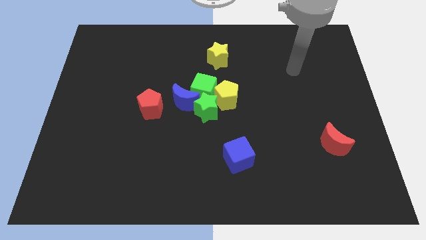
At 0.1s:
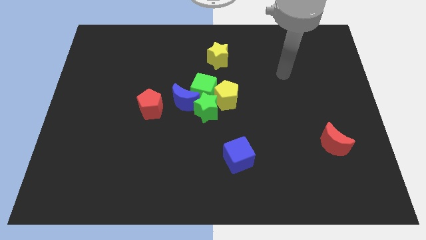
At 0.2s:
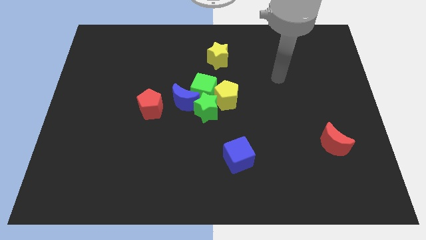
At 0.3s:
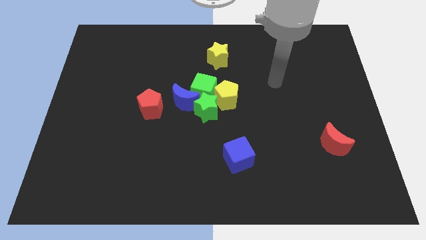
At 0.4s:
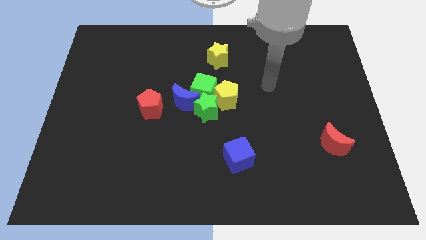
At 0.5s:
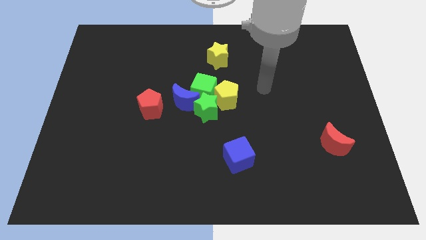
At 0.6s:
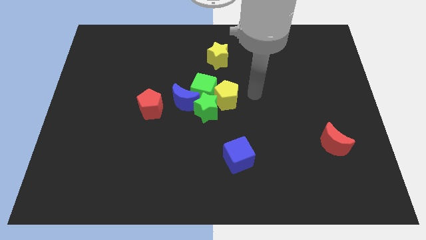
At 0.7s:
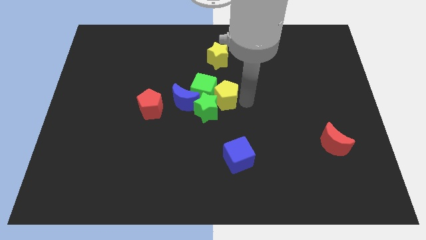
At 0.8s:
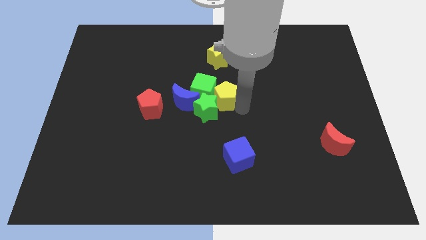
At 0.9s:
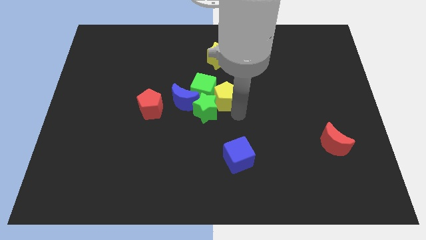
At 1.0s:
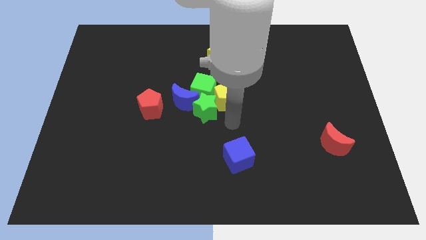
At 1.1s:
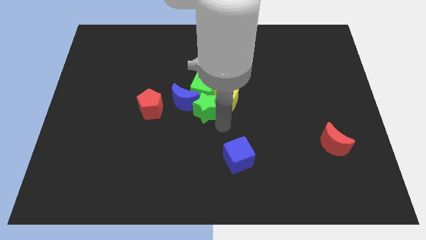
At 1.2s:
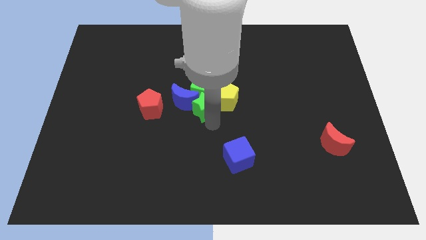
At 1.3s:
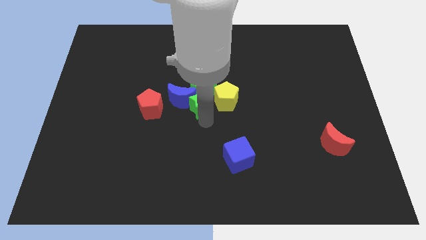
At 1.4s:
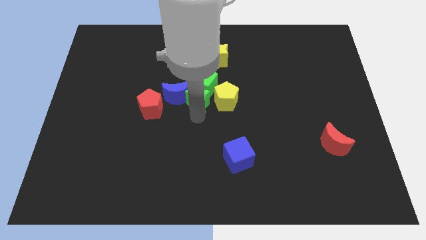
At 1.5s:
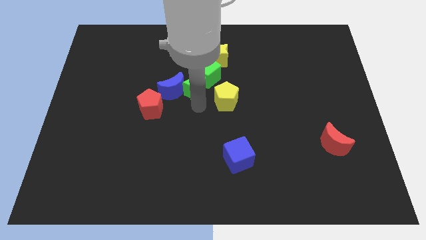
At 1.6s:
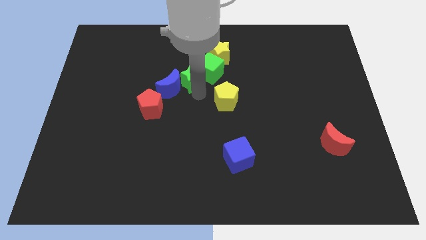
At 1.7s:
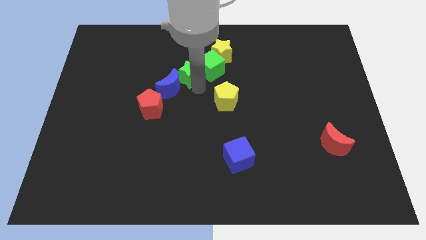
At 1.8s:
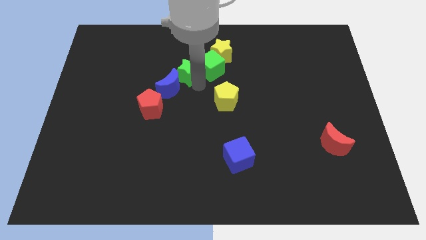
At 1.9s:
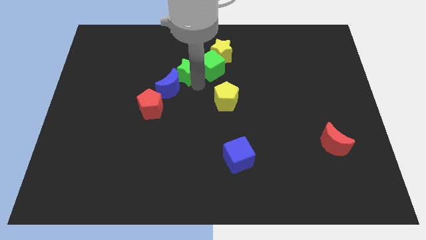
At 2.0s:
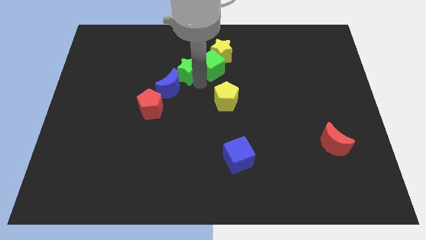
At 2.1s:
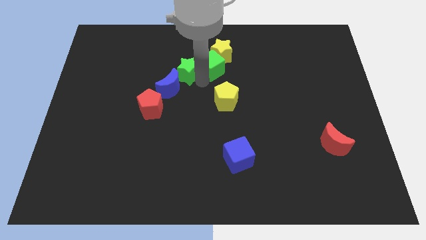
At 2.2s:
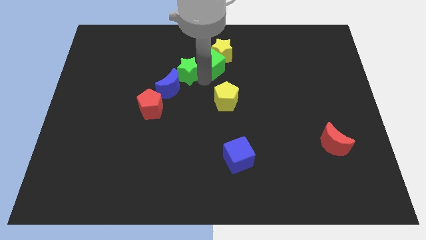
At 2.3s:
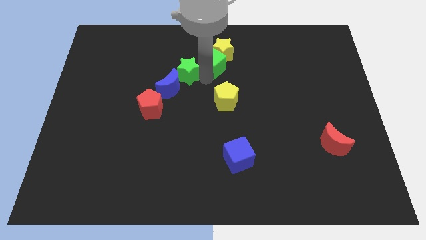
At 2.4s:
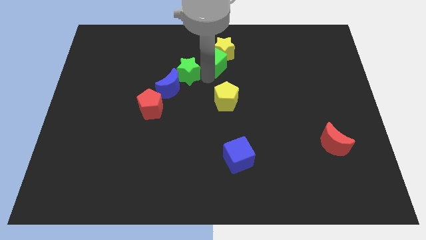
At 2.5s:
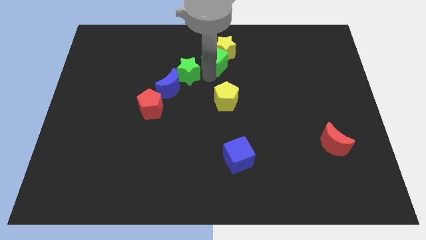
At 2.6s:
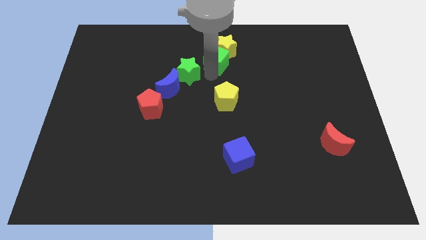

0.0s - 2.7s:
move the green cube away from the blue moon, yellow pentagon, and green star

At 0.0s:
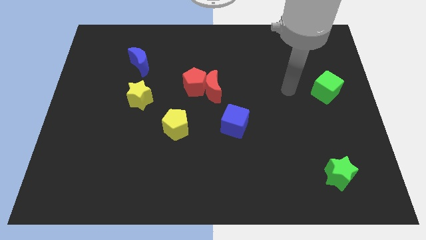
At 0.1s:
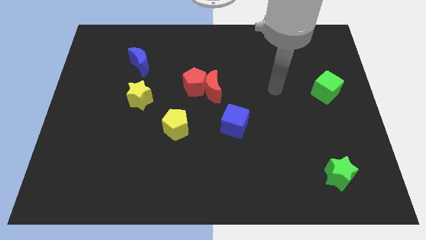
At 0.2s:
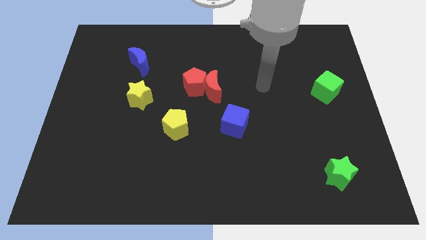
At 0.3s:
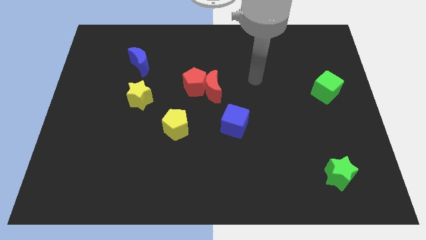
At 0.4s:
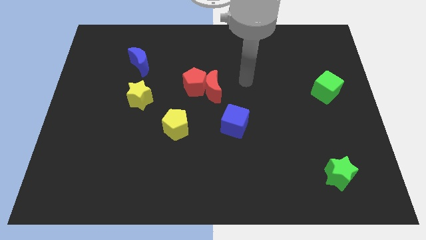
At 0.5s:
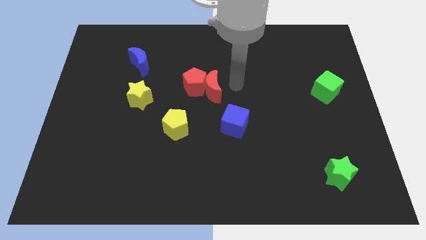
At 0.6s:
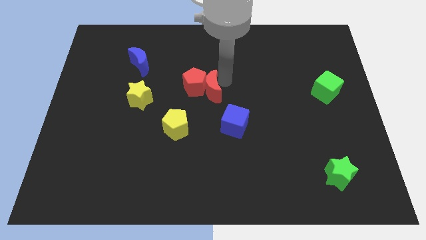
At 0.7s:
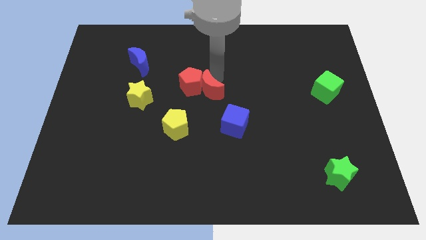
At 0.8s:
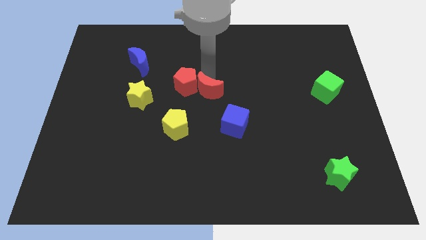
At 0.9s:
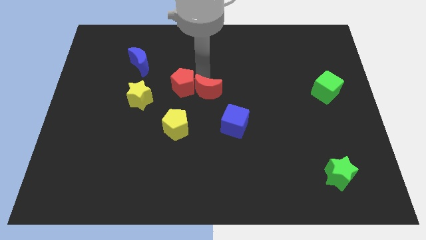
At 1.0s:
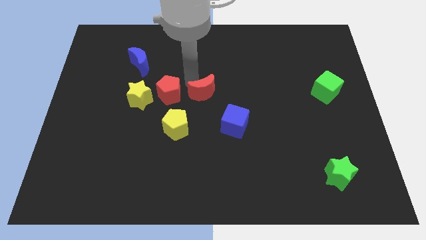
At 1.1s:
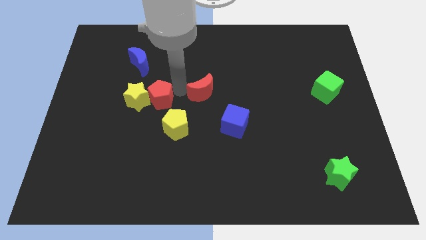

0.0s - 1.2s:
separate the red moon from the red pentagon

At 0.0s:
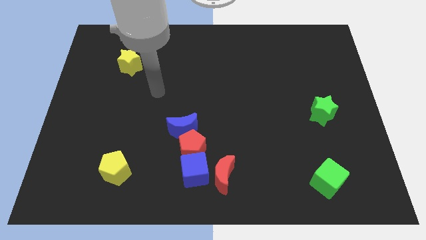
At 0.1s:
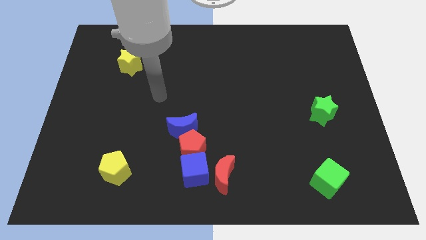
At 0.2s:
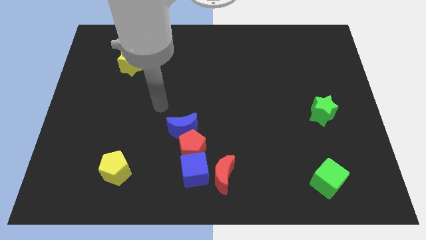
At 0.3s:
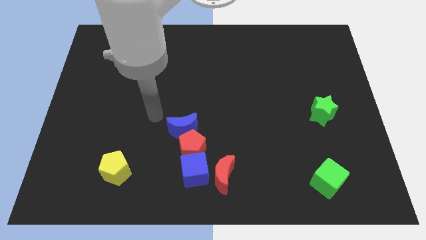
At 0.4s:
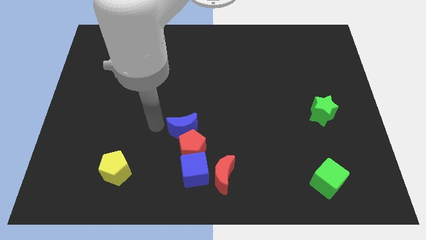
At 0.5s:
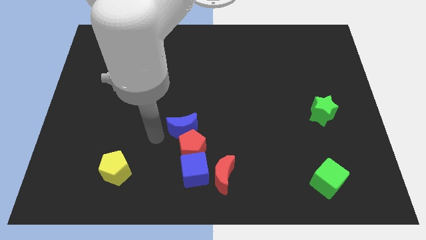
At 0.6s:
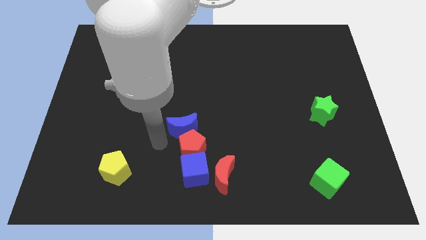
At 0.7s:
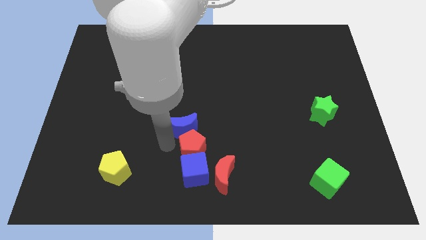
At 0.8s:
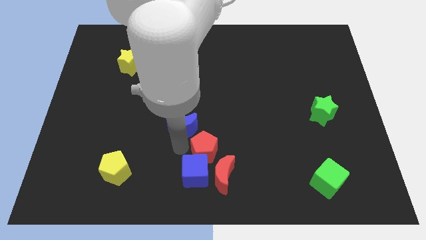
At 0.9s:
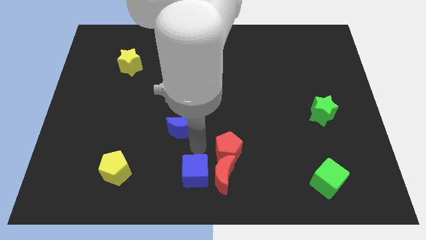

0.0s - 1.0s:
separate the blue moon from the red pentagon

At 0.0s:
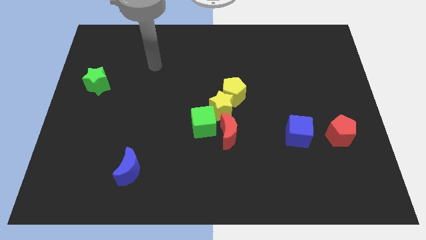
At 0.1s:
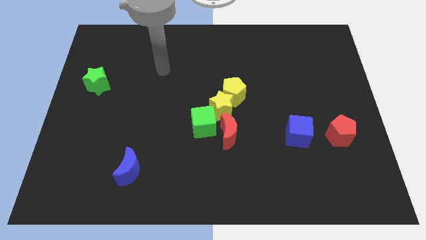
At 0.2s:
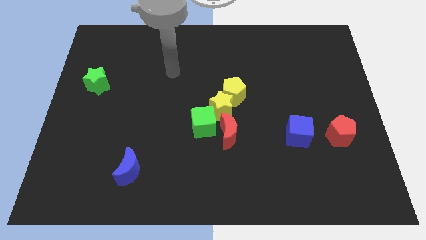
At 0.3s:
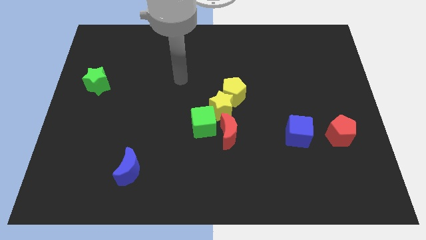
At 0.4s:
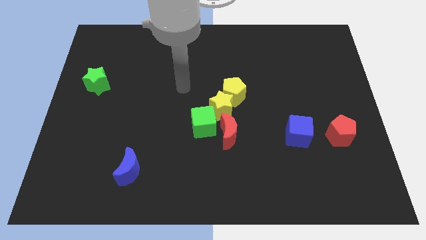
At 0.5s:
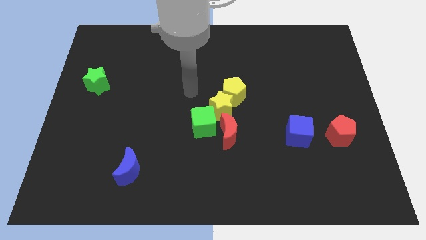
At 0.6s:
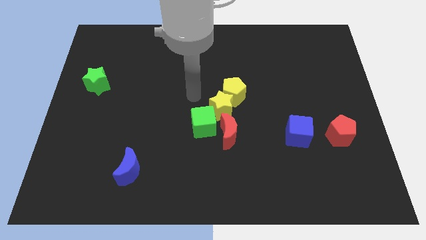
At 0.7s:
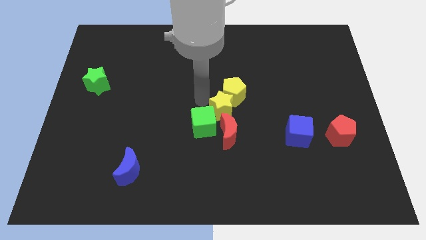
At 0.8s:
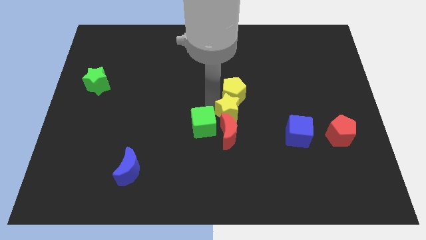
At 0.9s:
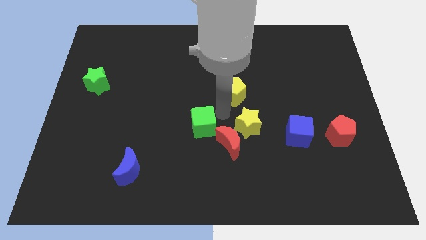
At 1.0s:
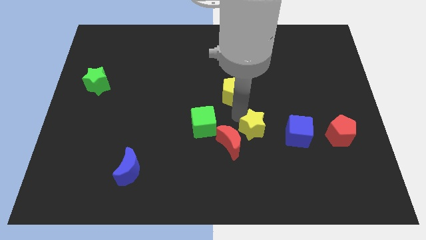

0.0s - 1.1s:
pull the yellow pentagon apart from the yellow star

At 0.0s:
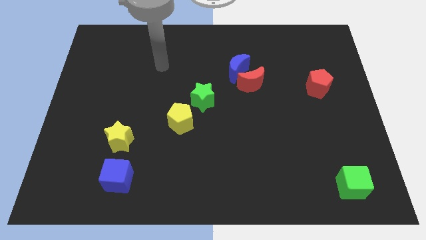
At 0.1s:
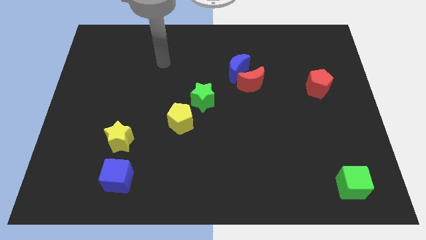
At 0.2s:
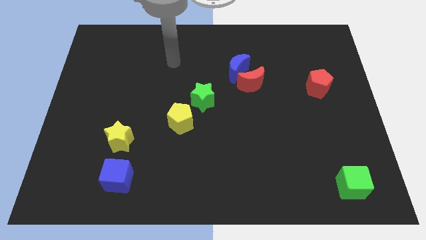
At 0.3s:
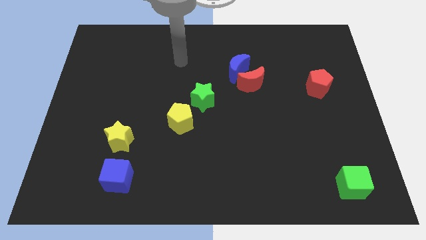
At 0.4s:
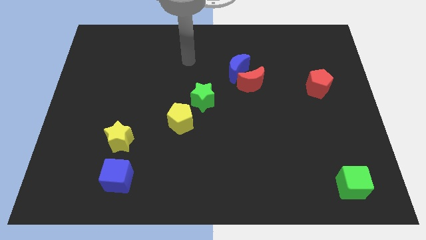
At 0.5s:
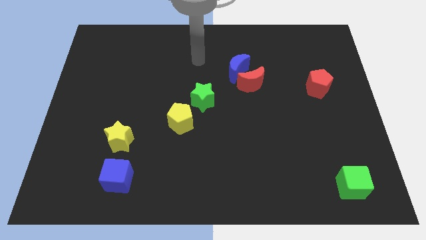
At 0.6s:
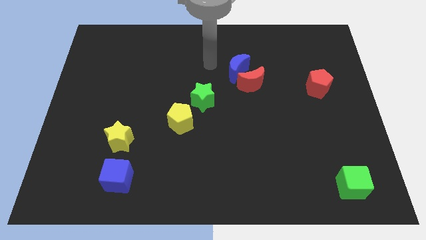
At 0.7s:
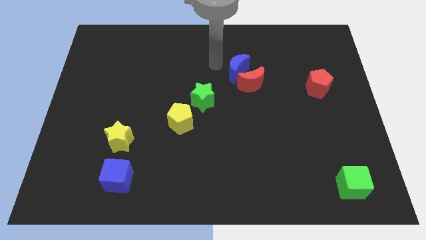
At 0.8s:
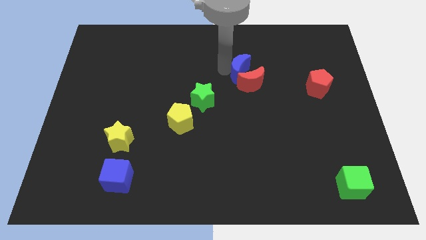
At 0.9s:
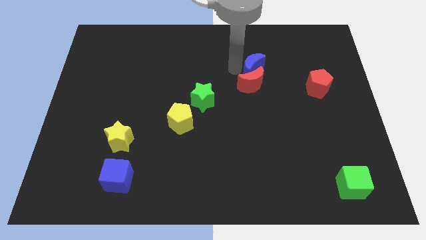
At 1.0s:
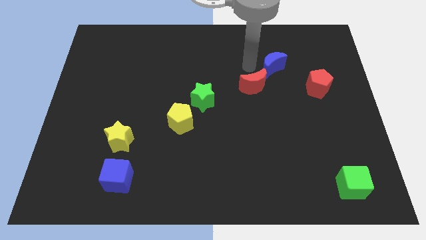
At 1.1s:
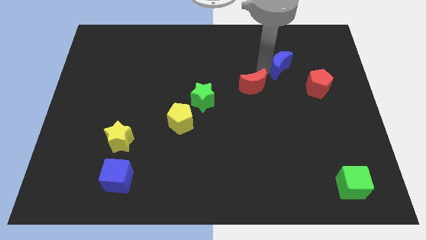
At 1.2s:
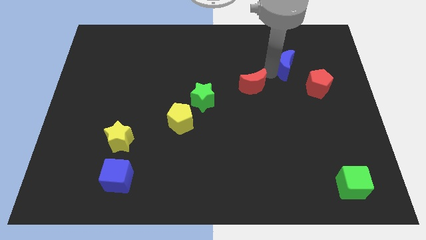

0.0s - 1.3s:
pull the red moon apart from the blue moon

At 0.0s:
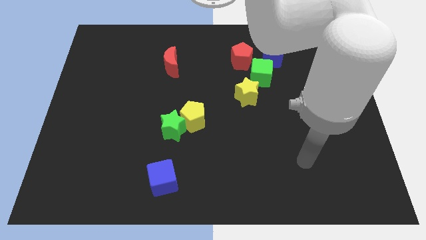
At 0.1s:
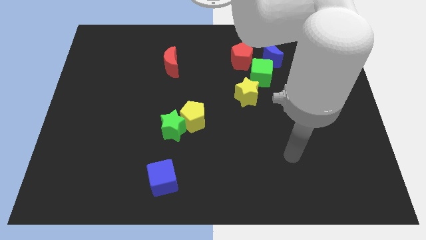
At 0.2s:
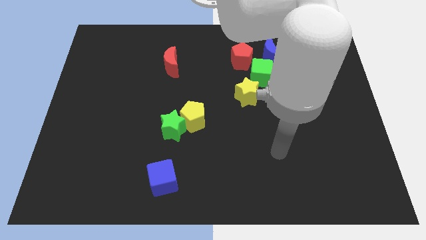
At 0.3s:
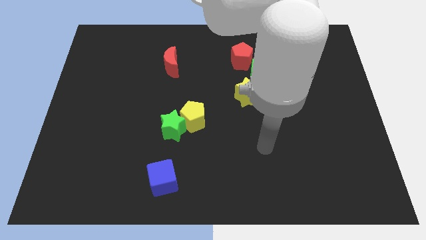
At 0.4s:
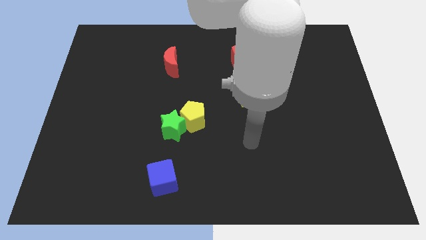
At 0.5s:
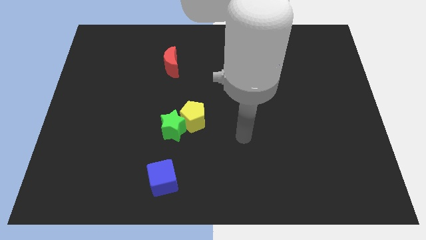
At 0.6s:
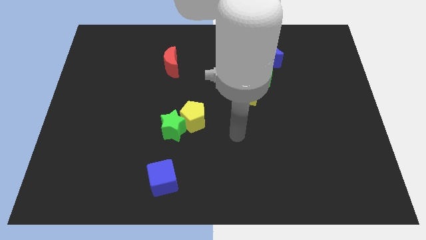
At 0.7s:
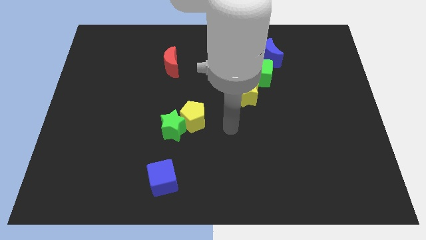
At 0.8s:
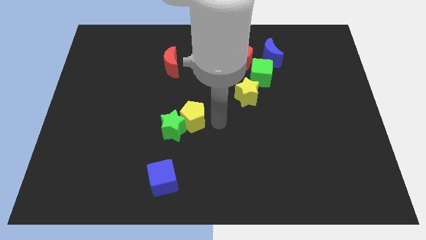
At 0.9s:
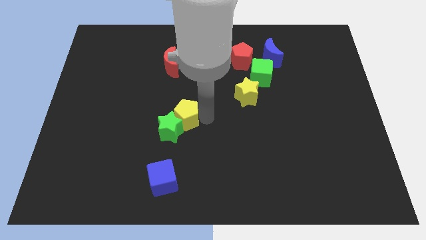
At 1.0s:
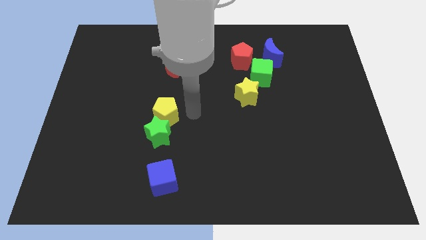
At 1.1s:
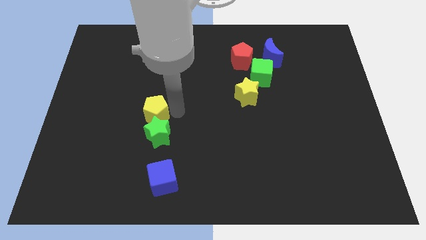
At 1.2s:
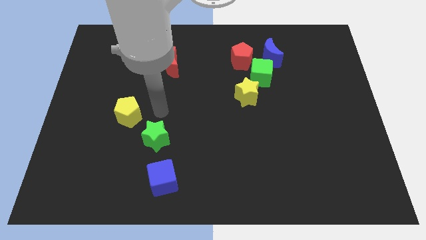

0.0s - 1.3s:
move the green star away from the yellow pentagon

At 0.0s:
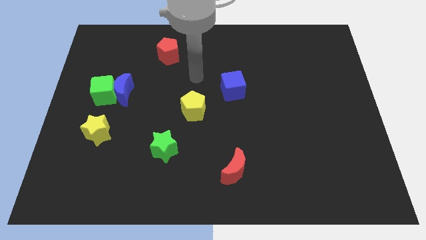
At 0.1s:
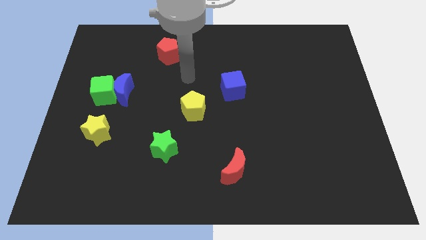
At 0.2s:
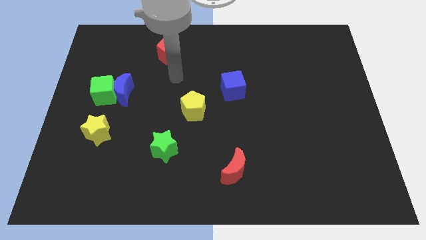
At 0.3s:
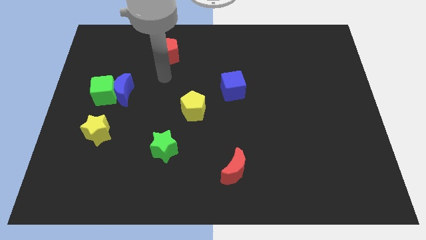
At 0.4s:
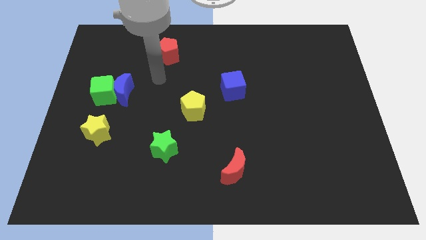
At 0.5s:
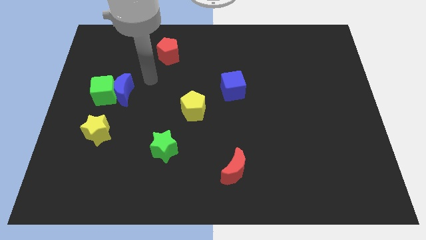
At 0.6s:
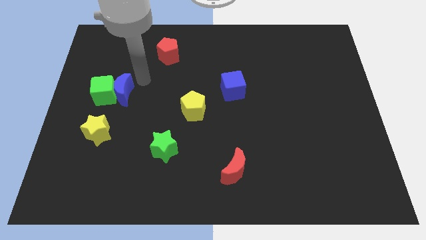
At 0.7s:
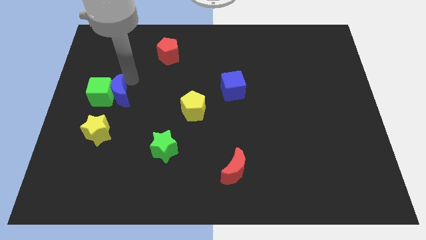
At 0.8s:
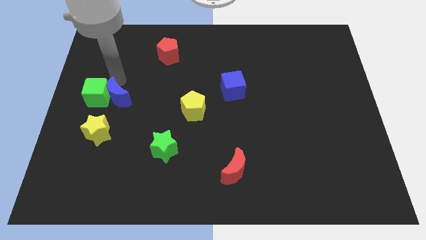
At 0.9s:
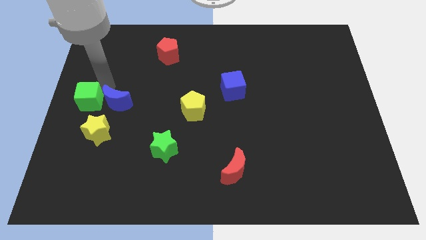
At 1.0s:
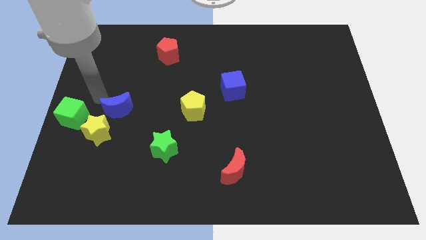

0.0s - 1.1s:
pull the blue moon apart from the green cube
